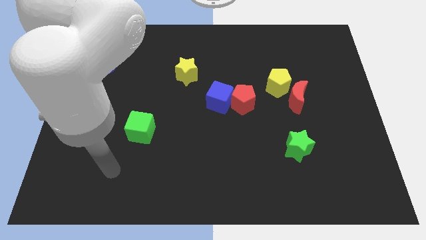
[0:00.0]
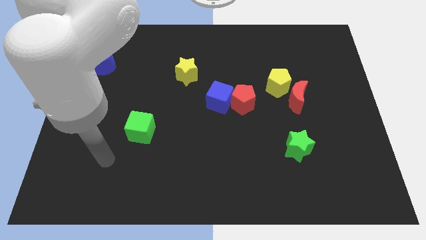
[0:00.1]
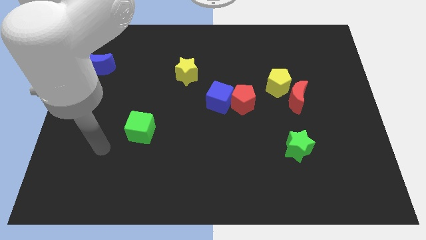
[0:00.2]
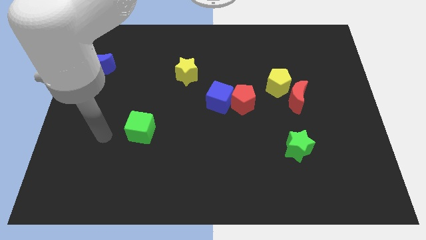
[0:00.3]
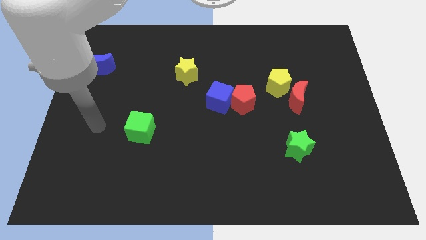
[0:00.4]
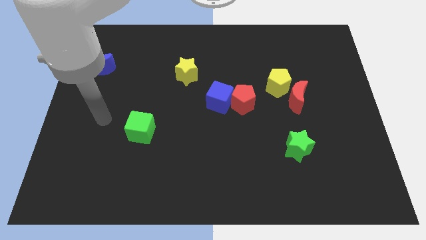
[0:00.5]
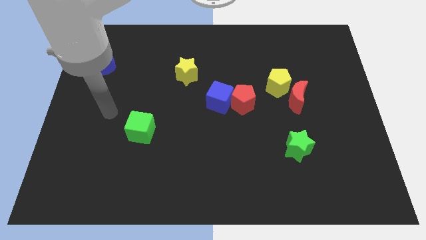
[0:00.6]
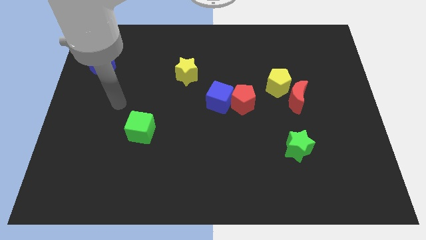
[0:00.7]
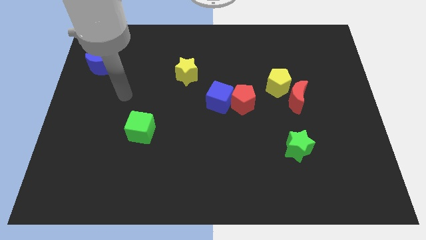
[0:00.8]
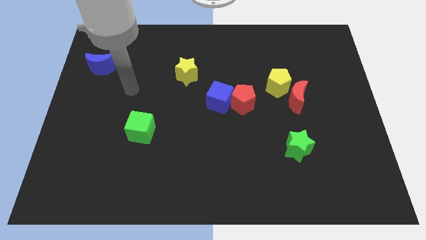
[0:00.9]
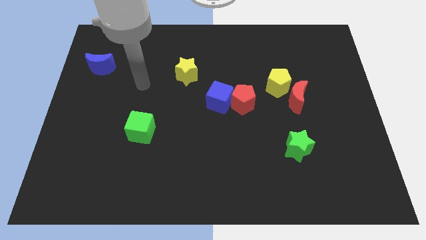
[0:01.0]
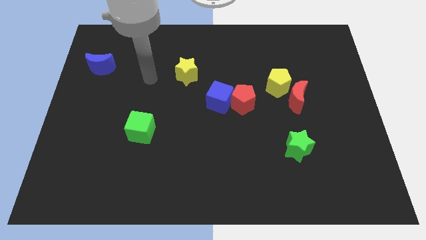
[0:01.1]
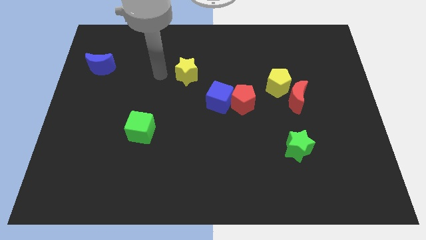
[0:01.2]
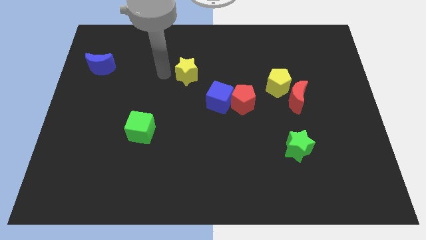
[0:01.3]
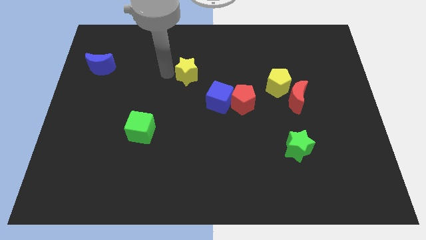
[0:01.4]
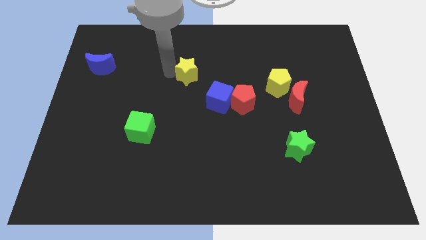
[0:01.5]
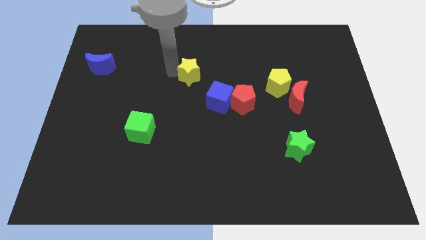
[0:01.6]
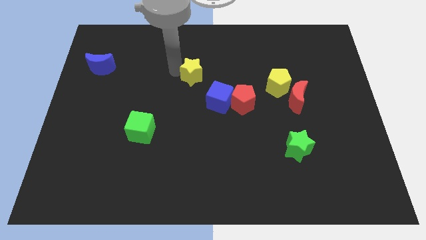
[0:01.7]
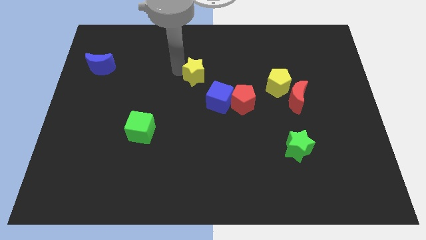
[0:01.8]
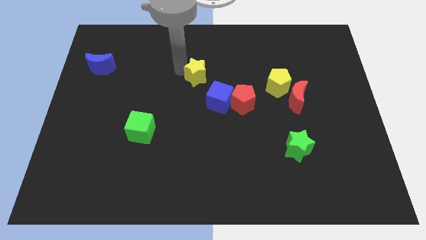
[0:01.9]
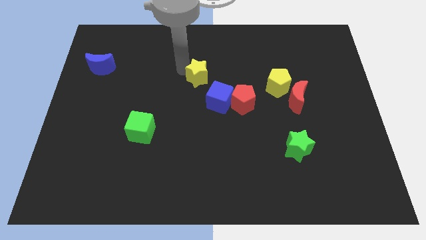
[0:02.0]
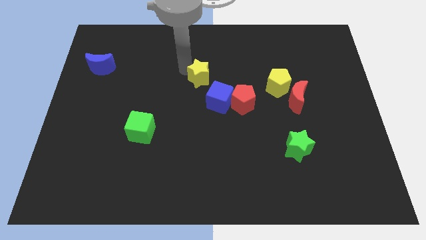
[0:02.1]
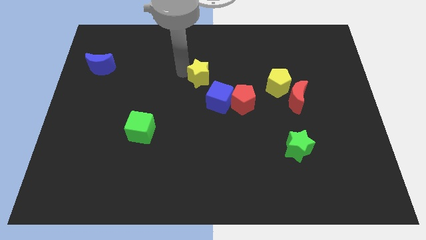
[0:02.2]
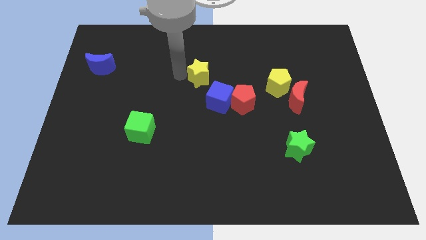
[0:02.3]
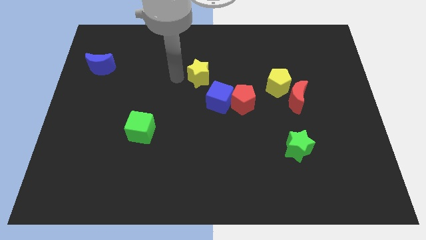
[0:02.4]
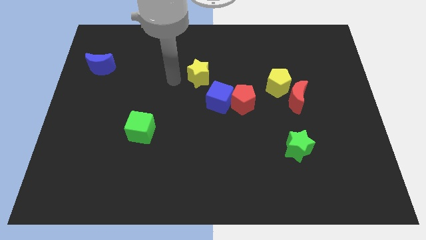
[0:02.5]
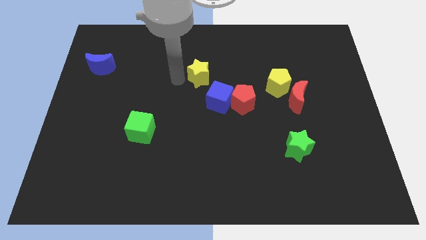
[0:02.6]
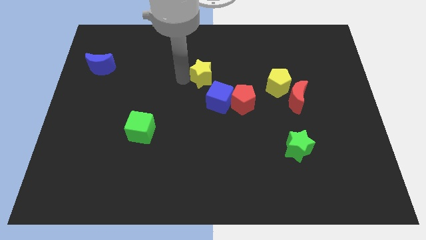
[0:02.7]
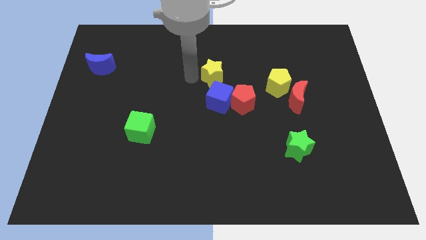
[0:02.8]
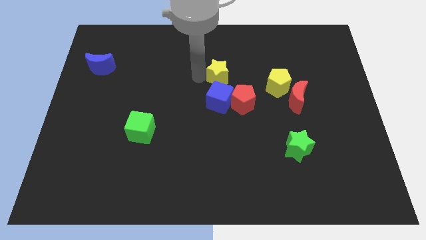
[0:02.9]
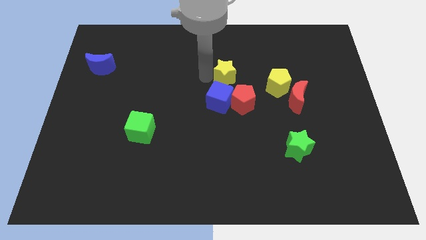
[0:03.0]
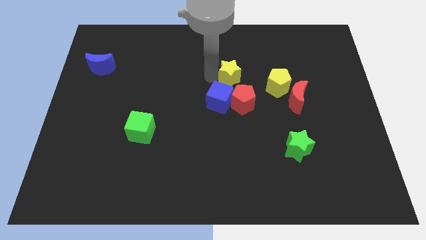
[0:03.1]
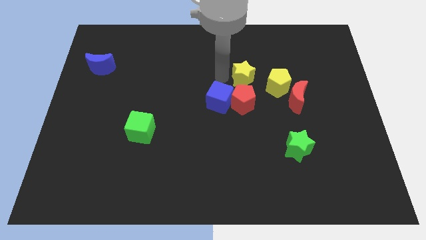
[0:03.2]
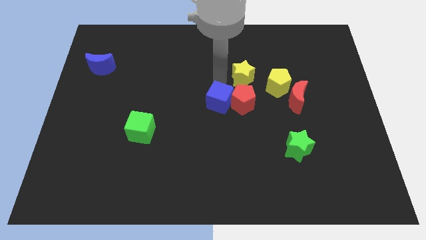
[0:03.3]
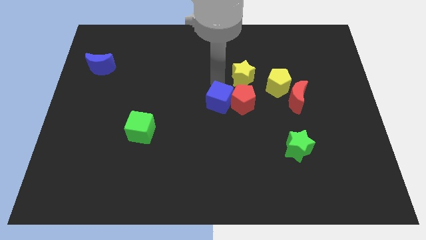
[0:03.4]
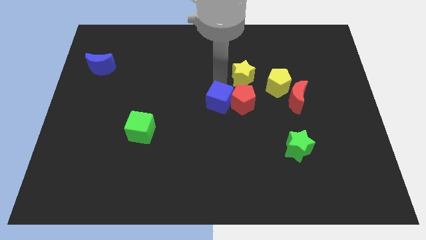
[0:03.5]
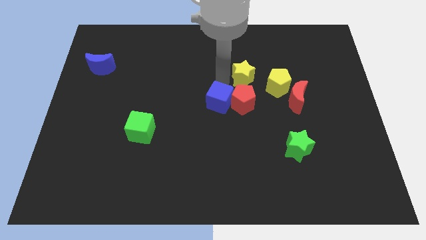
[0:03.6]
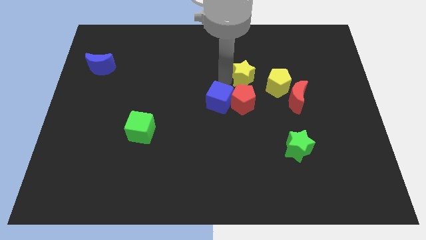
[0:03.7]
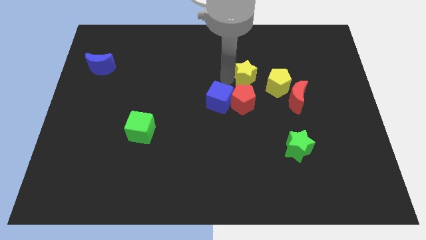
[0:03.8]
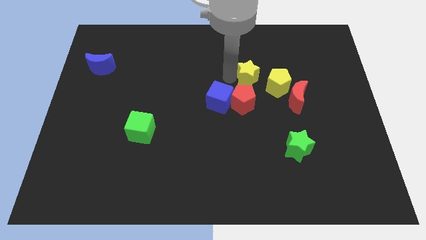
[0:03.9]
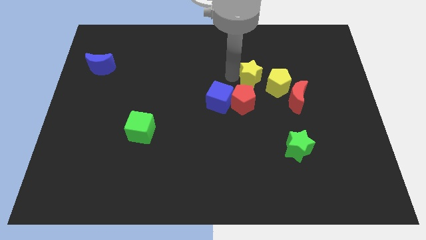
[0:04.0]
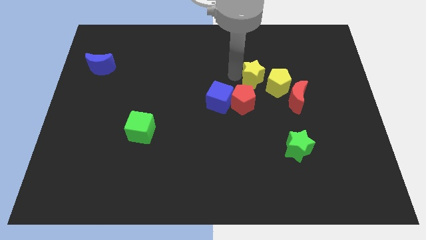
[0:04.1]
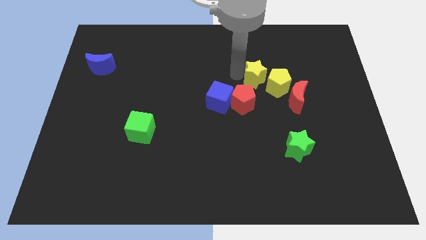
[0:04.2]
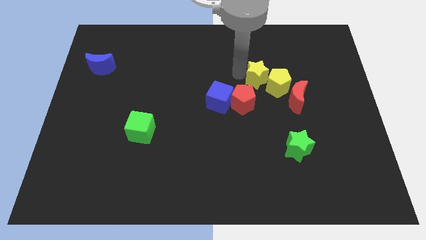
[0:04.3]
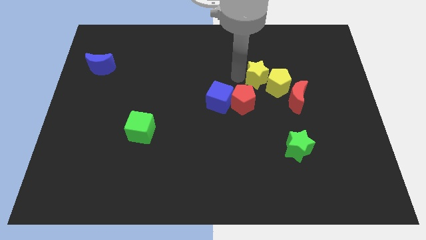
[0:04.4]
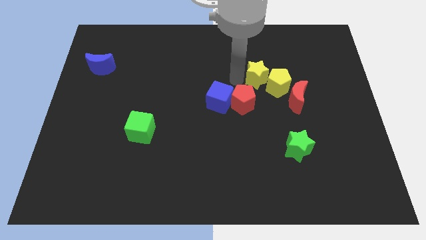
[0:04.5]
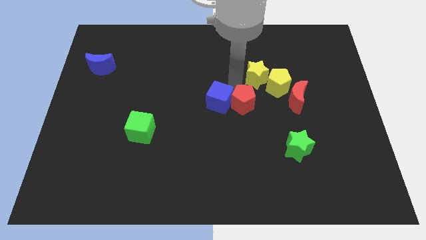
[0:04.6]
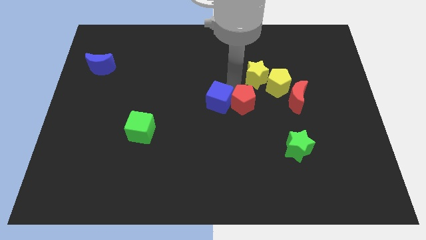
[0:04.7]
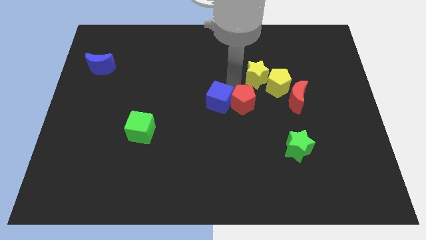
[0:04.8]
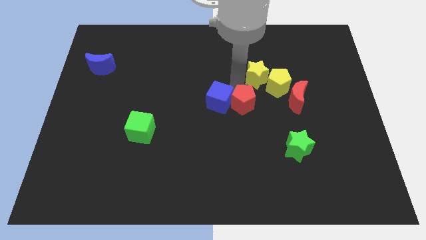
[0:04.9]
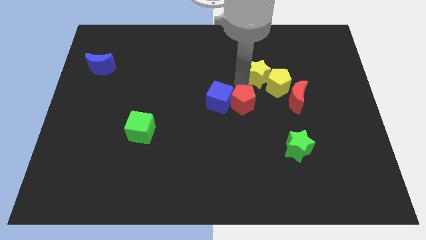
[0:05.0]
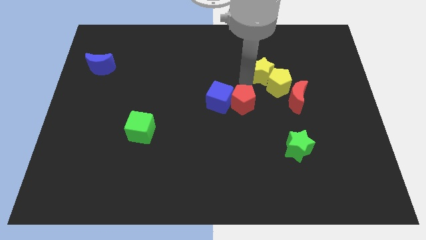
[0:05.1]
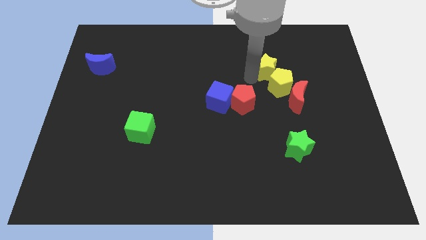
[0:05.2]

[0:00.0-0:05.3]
push the yellow star right

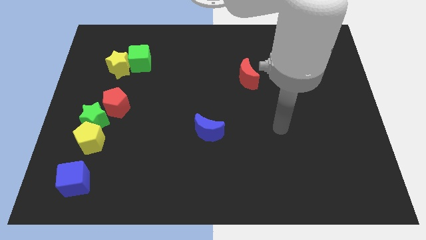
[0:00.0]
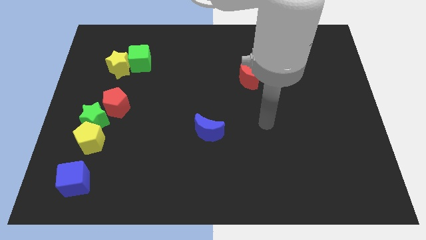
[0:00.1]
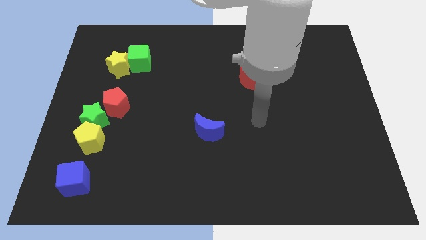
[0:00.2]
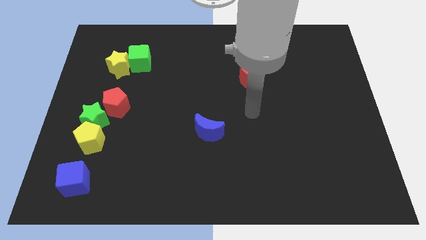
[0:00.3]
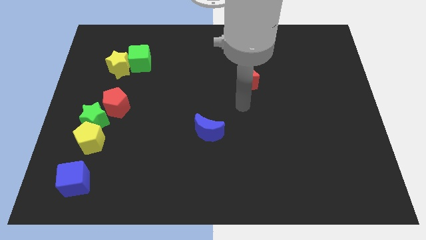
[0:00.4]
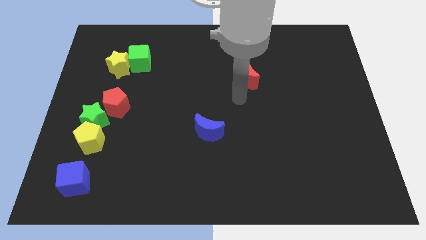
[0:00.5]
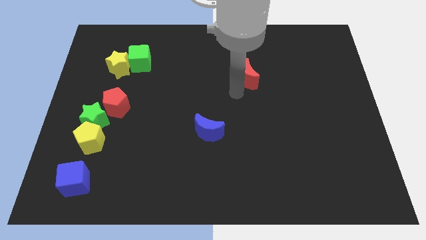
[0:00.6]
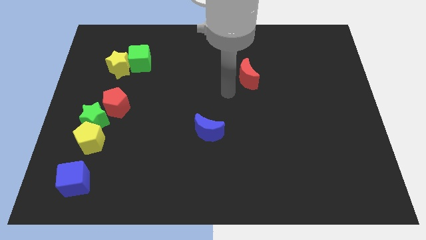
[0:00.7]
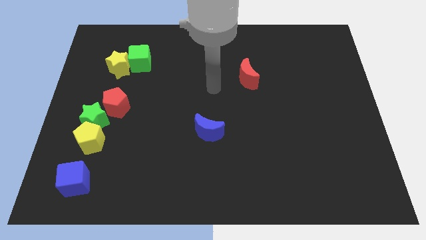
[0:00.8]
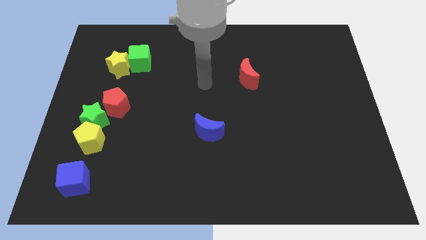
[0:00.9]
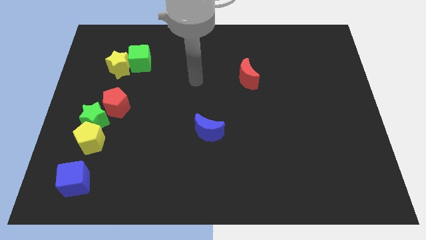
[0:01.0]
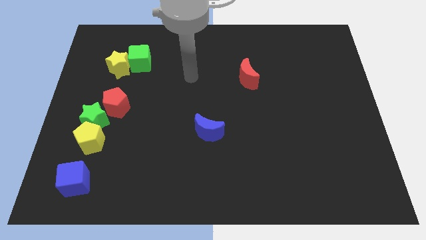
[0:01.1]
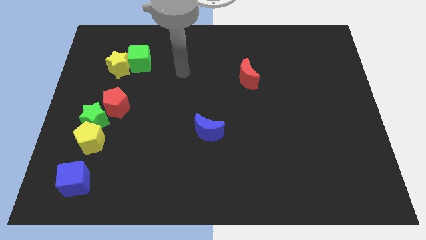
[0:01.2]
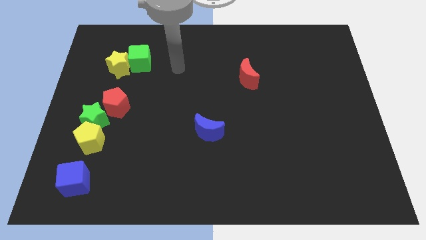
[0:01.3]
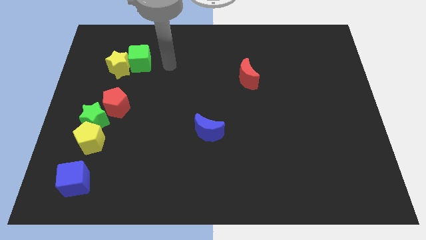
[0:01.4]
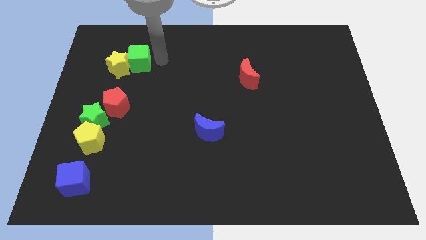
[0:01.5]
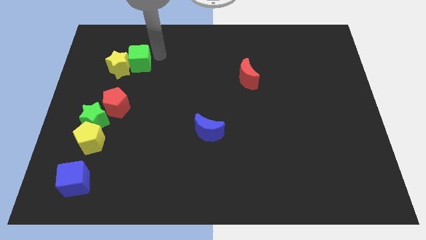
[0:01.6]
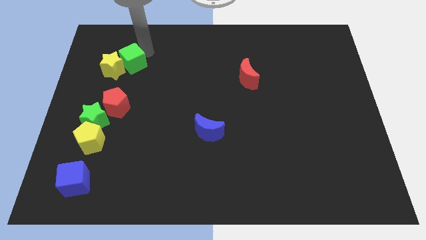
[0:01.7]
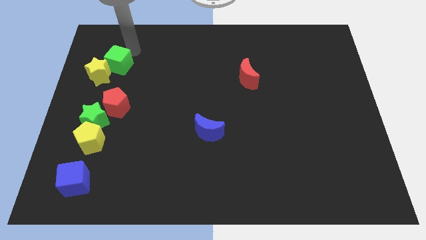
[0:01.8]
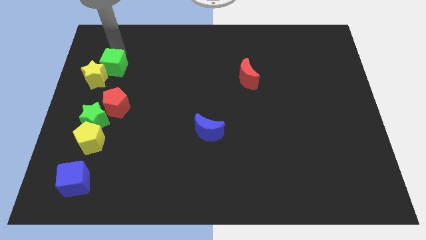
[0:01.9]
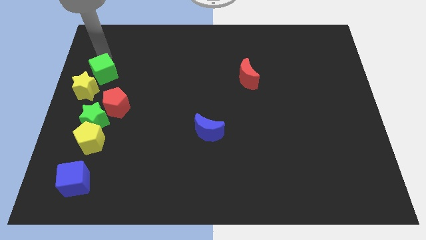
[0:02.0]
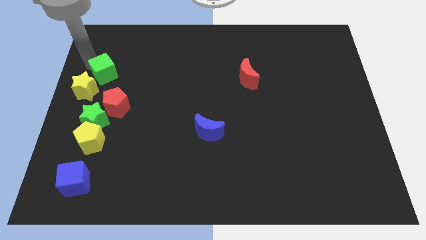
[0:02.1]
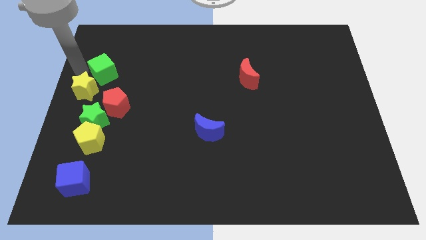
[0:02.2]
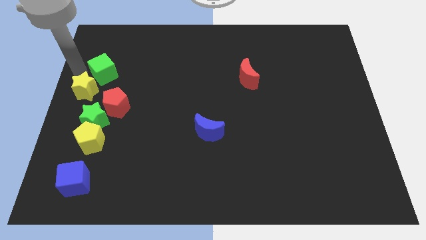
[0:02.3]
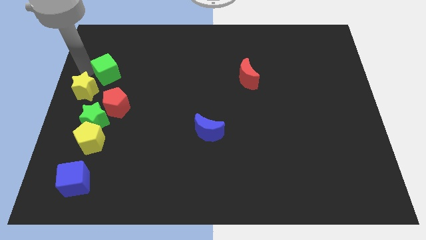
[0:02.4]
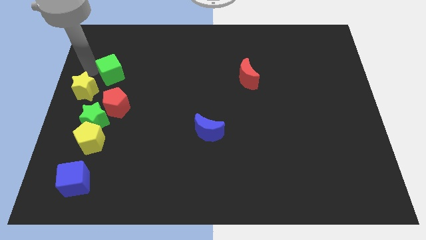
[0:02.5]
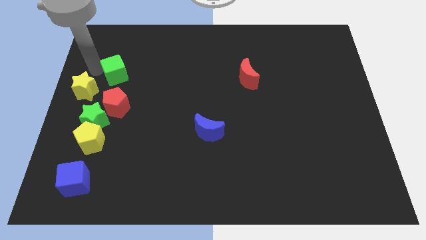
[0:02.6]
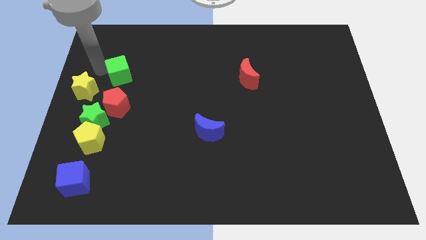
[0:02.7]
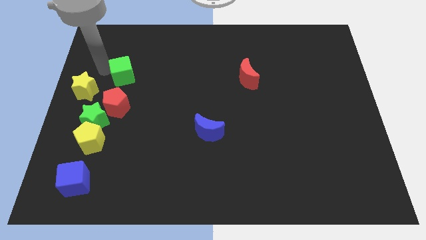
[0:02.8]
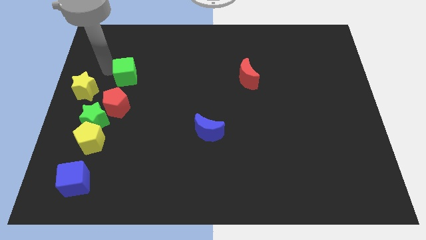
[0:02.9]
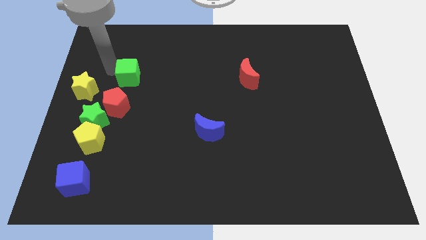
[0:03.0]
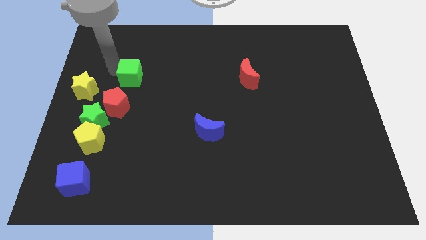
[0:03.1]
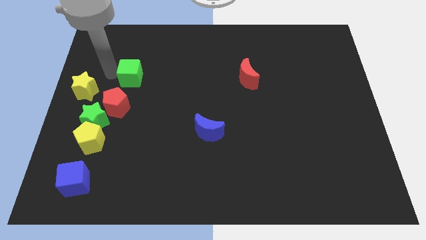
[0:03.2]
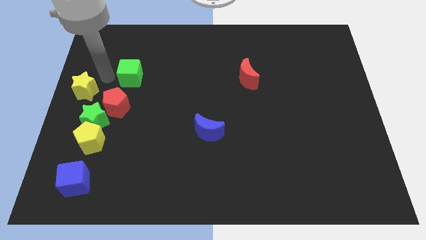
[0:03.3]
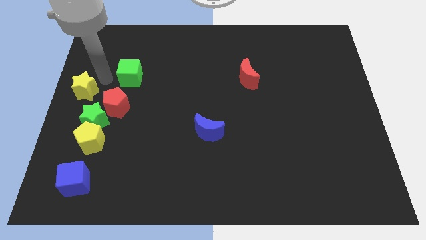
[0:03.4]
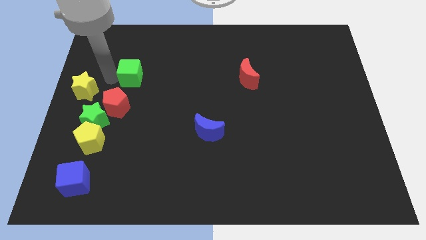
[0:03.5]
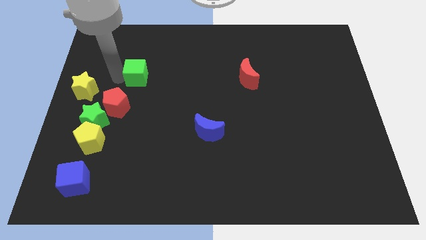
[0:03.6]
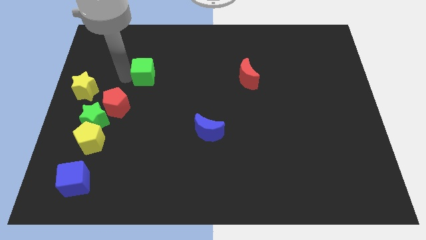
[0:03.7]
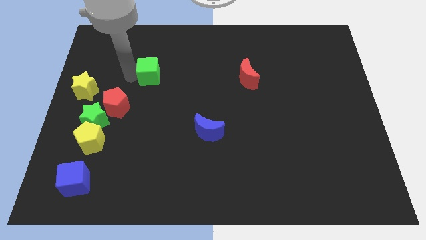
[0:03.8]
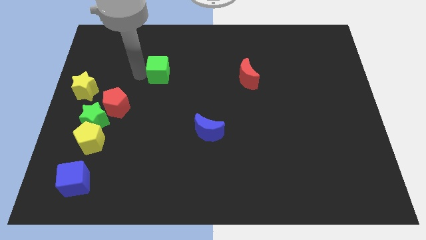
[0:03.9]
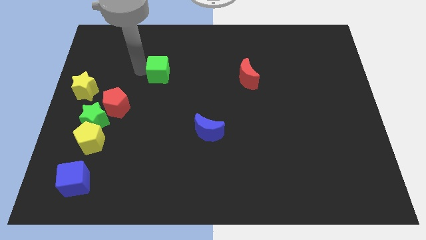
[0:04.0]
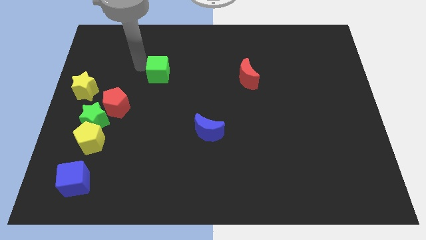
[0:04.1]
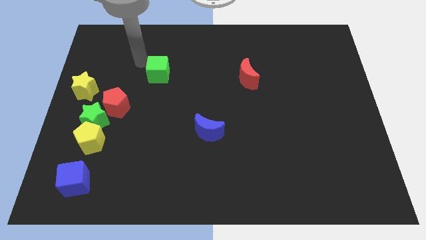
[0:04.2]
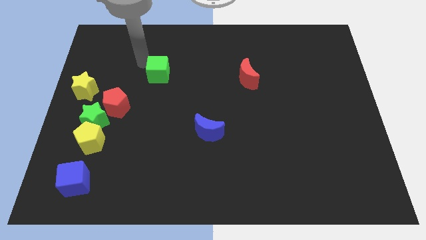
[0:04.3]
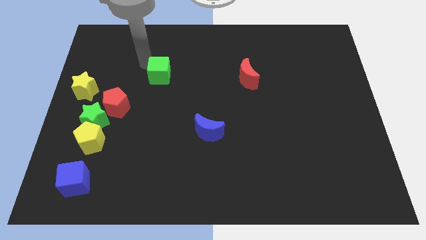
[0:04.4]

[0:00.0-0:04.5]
slide the green cube diagonally down and right somewhat
